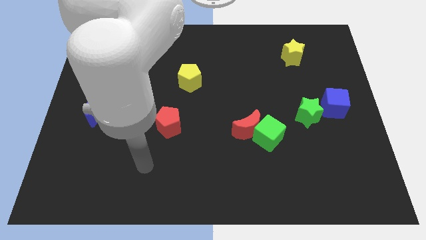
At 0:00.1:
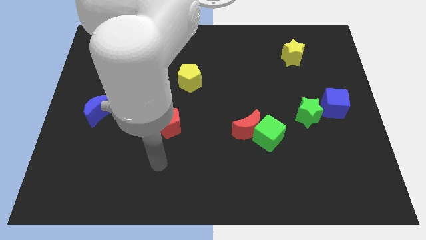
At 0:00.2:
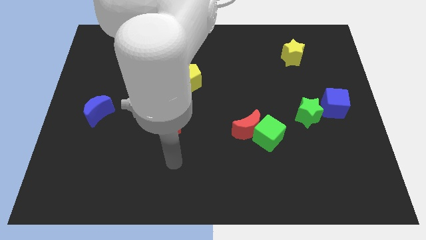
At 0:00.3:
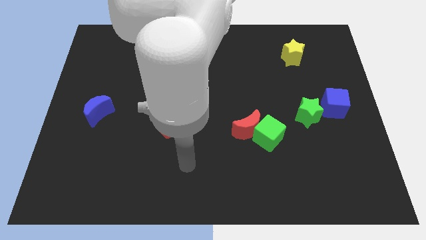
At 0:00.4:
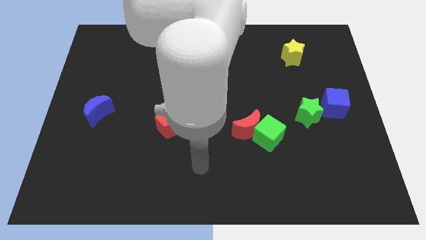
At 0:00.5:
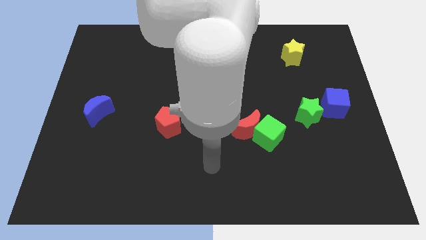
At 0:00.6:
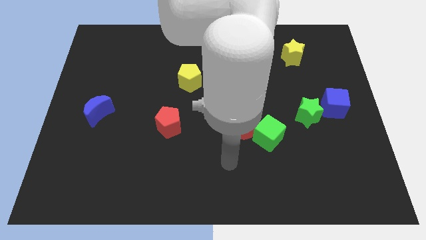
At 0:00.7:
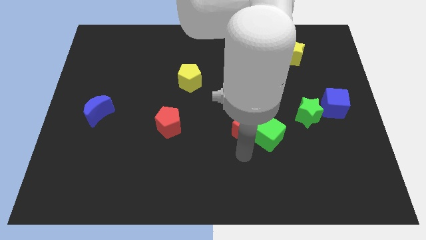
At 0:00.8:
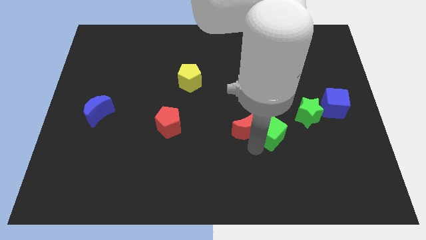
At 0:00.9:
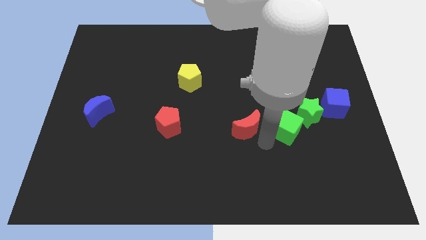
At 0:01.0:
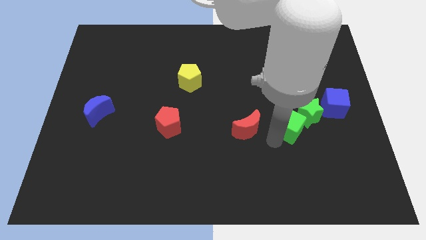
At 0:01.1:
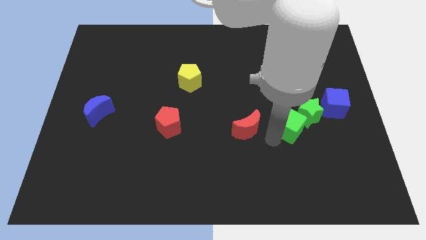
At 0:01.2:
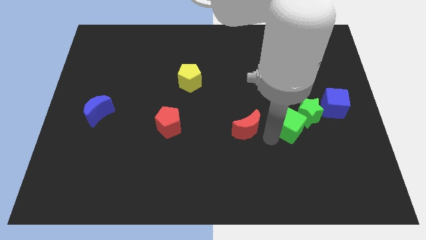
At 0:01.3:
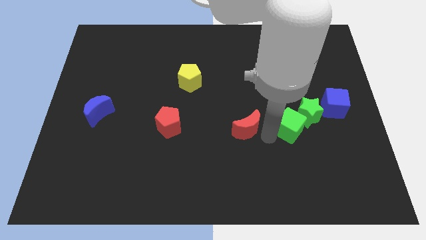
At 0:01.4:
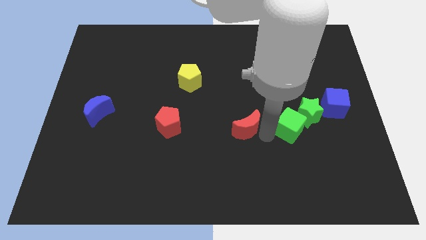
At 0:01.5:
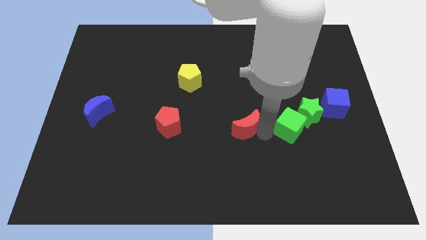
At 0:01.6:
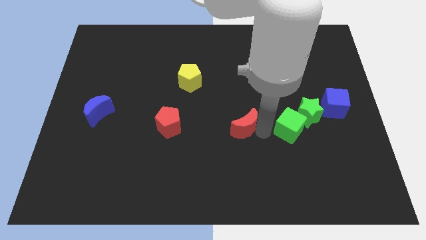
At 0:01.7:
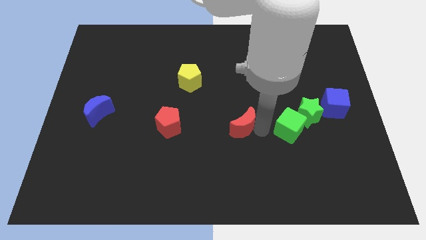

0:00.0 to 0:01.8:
pull the red moon apart from the green cube

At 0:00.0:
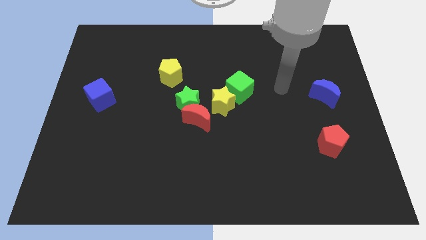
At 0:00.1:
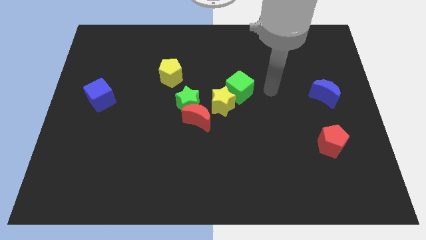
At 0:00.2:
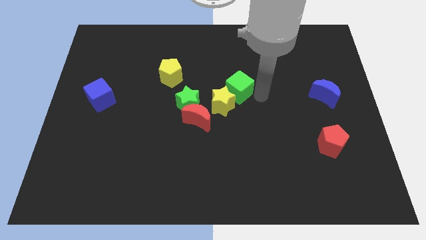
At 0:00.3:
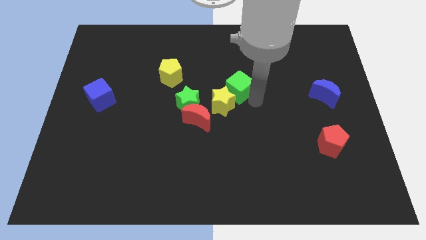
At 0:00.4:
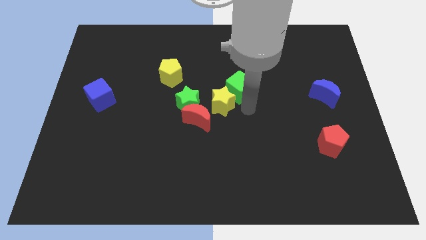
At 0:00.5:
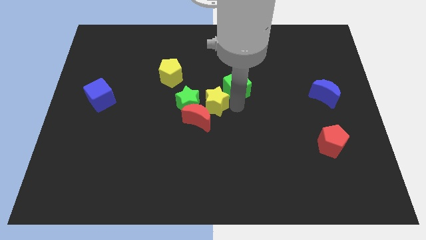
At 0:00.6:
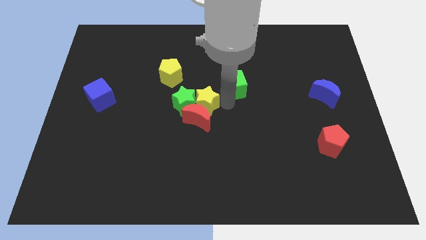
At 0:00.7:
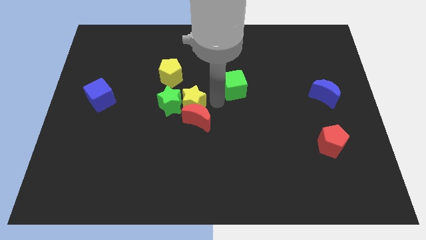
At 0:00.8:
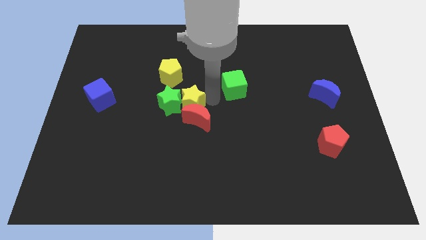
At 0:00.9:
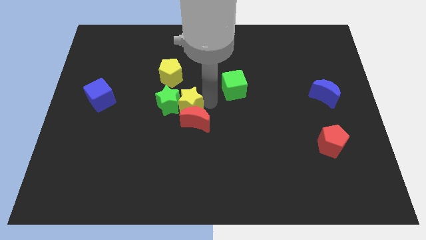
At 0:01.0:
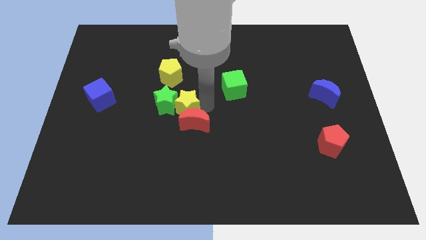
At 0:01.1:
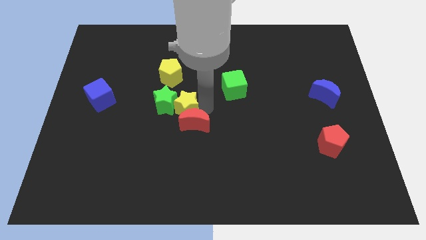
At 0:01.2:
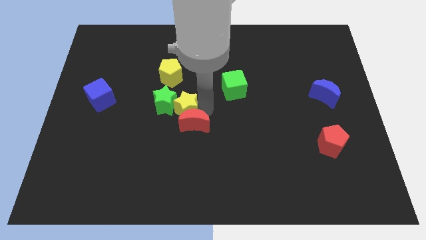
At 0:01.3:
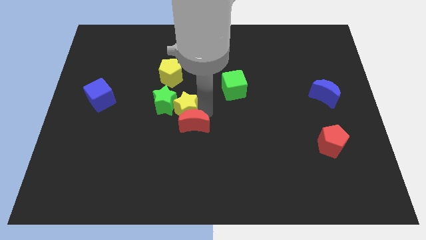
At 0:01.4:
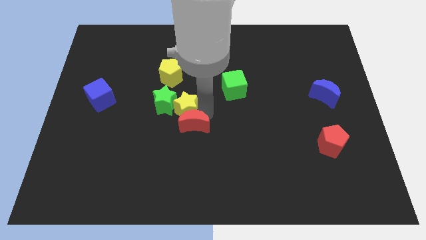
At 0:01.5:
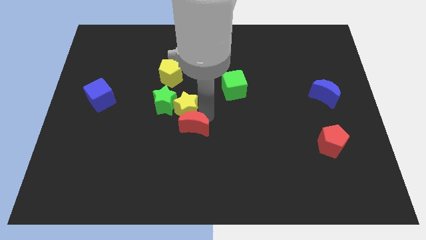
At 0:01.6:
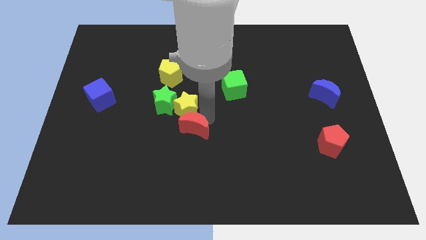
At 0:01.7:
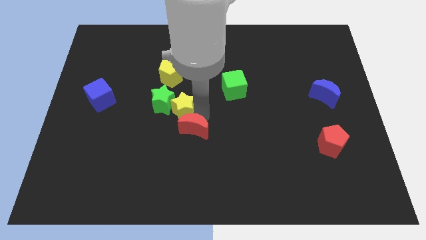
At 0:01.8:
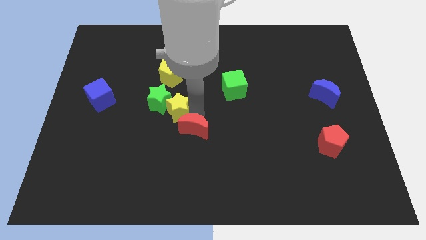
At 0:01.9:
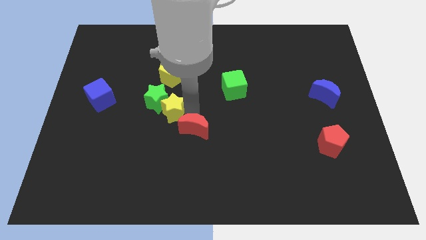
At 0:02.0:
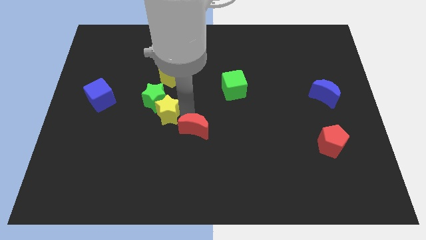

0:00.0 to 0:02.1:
move the red moon away from the green star and yellow star

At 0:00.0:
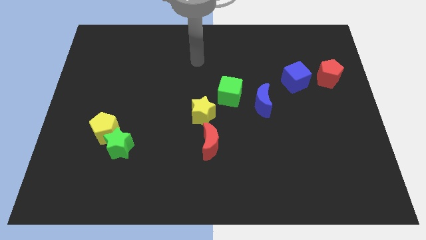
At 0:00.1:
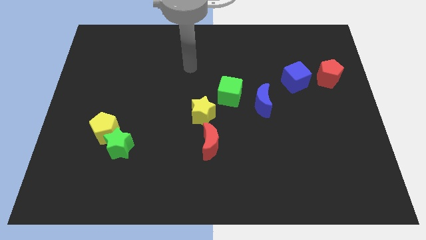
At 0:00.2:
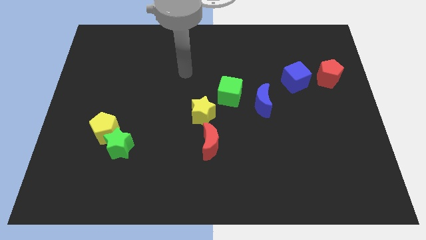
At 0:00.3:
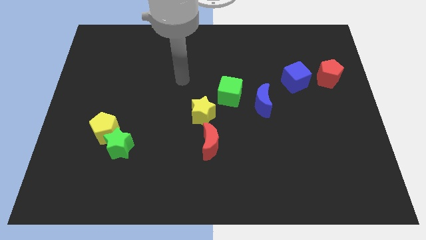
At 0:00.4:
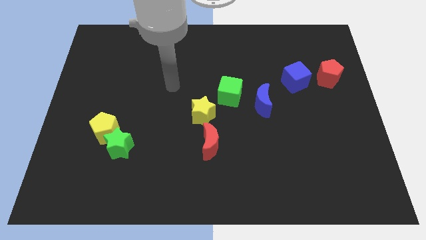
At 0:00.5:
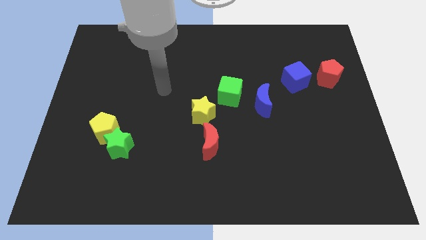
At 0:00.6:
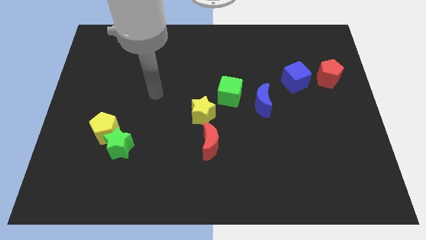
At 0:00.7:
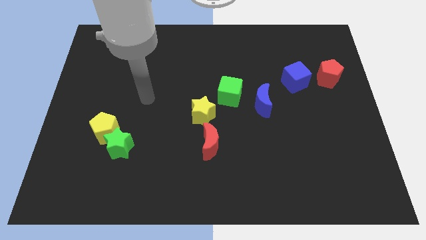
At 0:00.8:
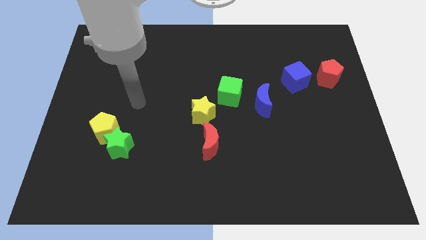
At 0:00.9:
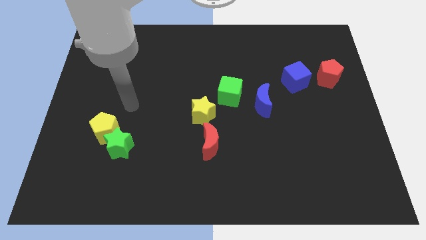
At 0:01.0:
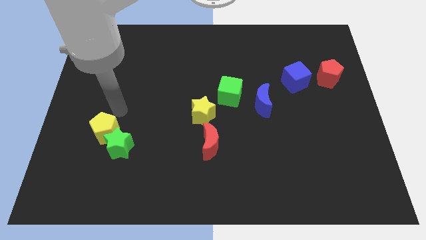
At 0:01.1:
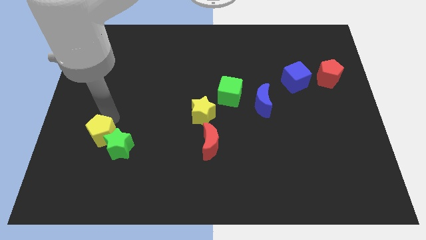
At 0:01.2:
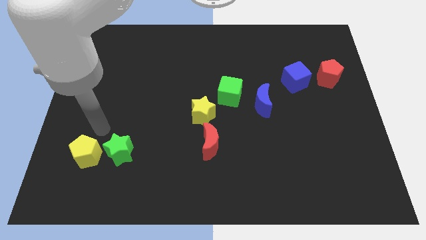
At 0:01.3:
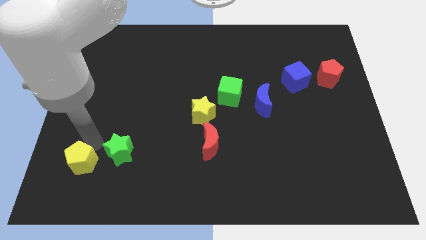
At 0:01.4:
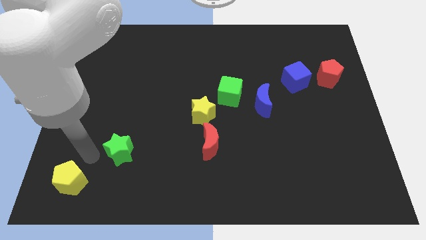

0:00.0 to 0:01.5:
pull the green star apart from the yellow pentagon

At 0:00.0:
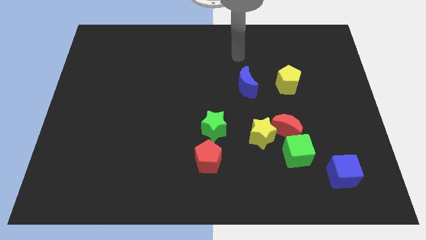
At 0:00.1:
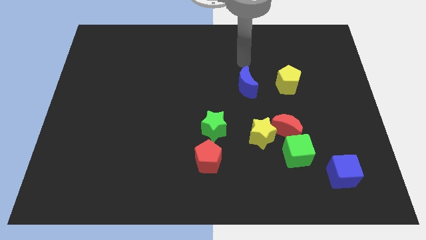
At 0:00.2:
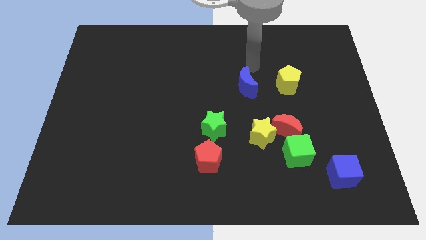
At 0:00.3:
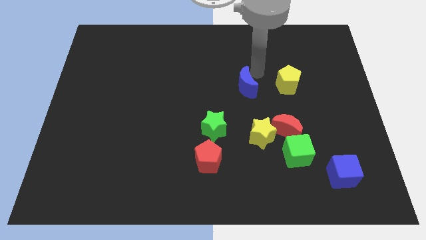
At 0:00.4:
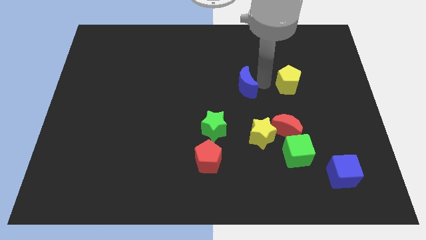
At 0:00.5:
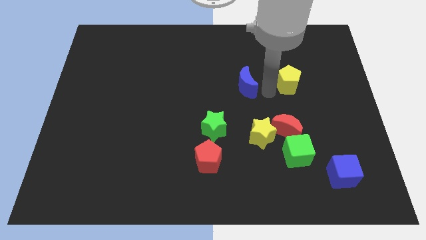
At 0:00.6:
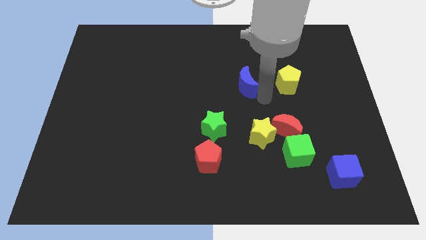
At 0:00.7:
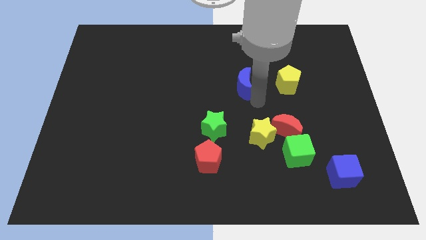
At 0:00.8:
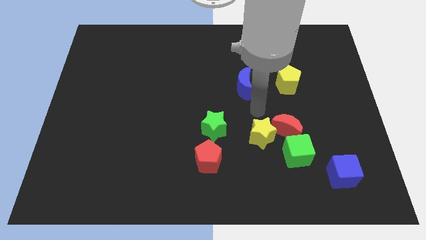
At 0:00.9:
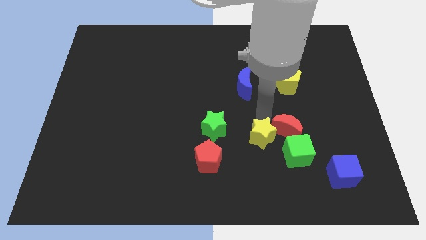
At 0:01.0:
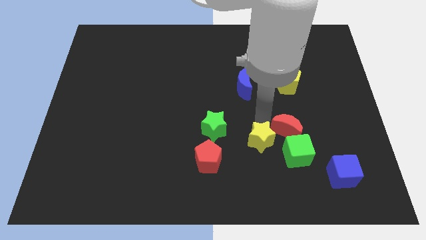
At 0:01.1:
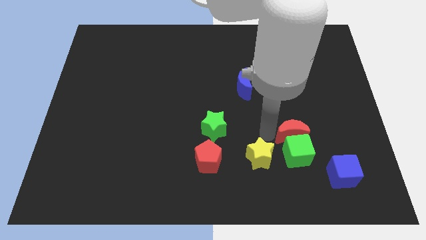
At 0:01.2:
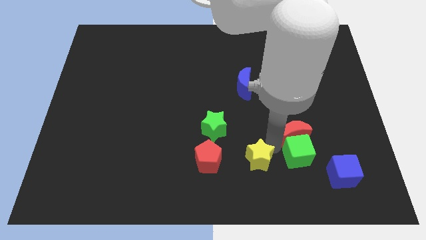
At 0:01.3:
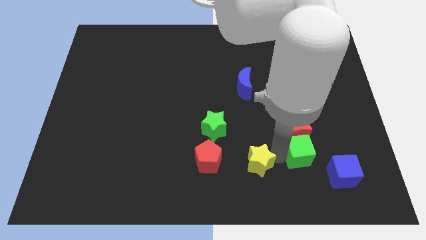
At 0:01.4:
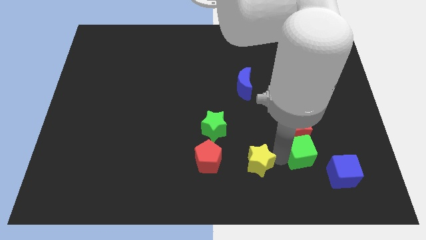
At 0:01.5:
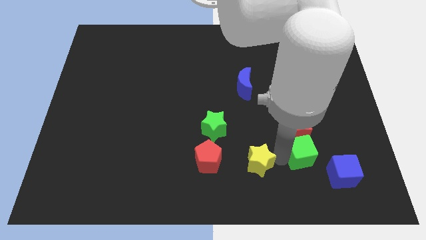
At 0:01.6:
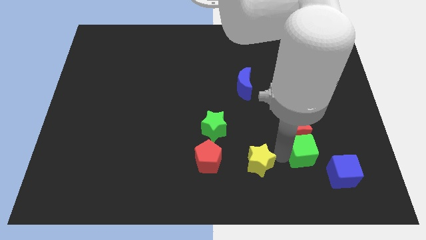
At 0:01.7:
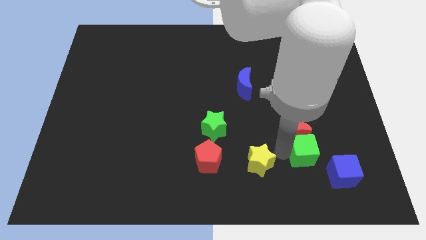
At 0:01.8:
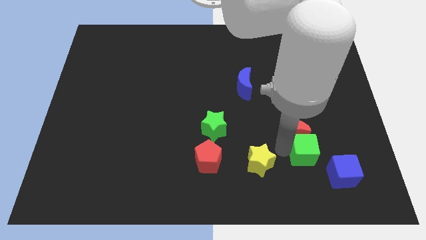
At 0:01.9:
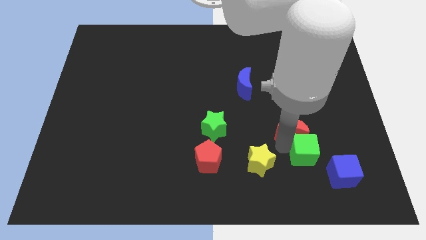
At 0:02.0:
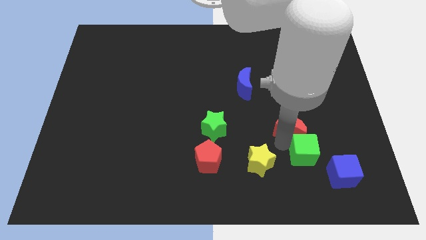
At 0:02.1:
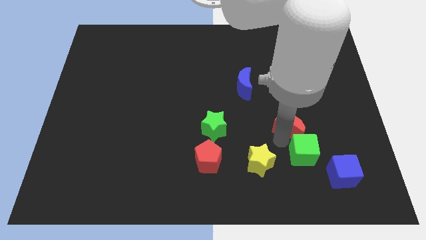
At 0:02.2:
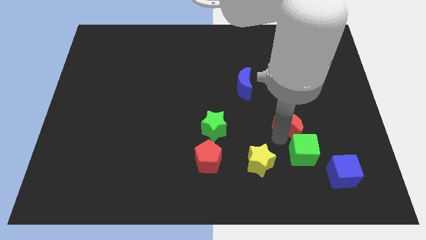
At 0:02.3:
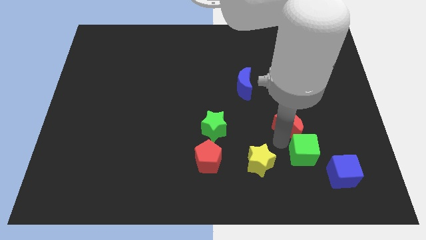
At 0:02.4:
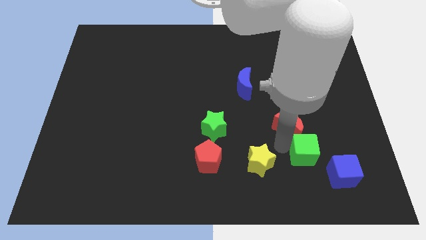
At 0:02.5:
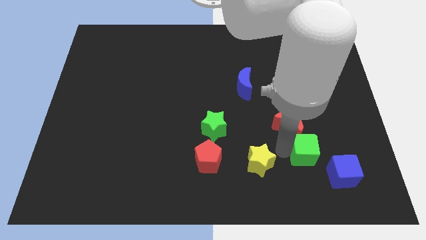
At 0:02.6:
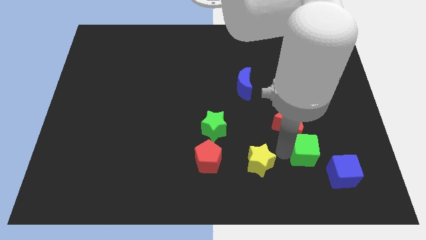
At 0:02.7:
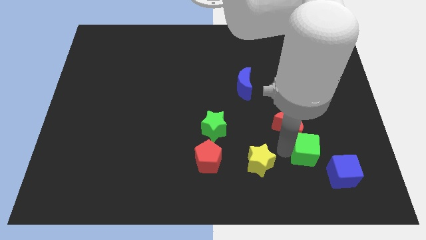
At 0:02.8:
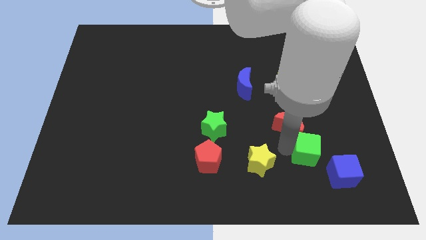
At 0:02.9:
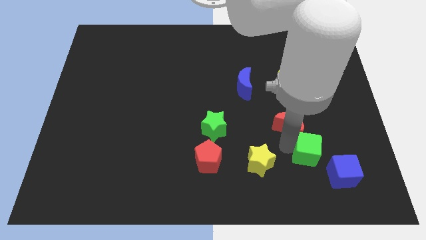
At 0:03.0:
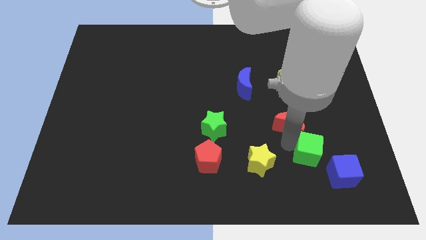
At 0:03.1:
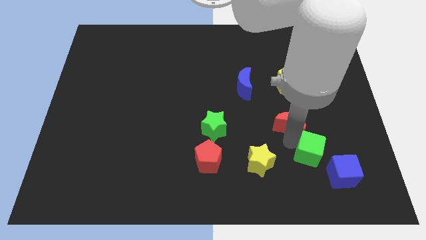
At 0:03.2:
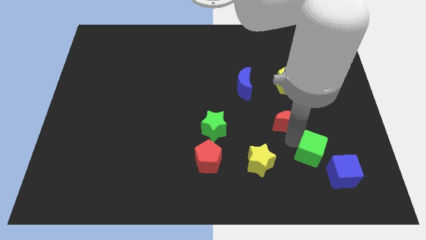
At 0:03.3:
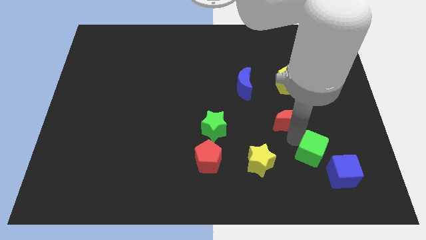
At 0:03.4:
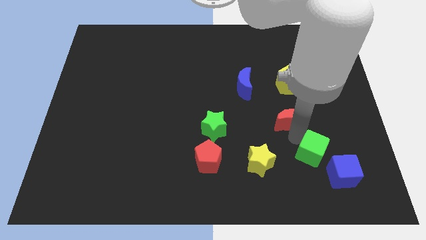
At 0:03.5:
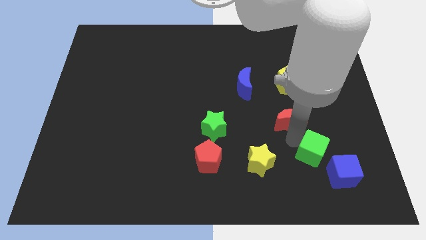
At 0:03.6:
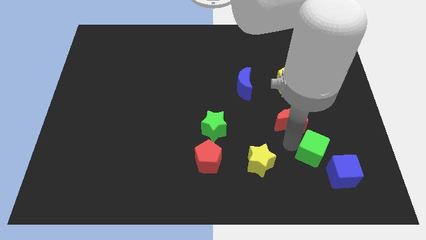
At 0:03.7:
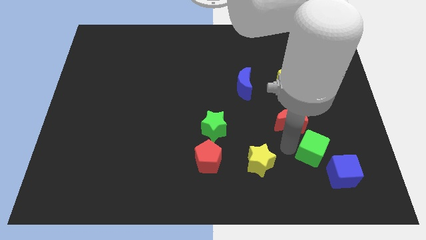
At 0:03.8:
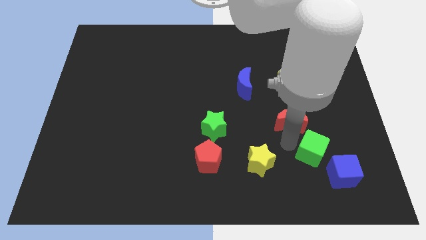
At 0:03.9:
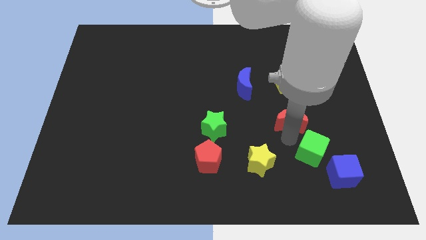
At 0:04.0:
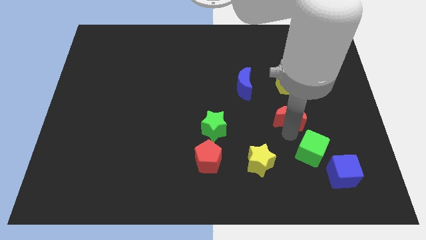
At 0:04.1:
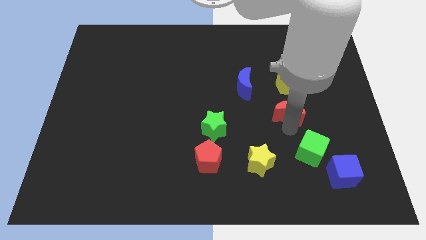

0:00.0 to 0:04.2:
move the red moon away from the yellow star and green cube
